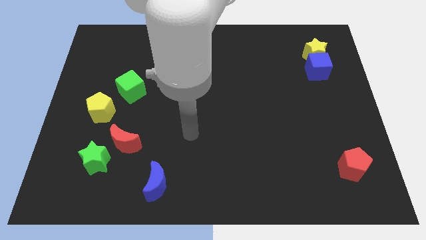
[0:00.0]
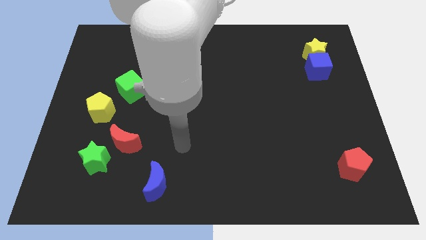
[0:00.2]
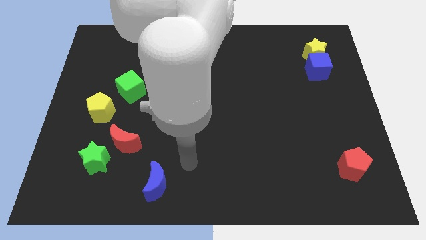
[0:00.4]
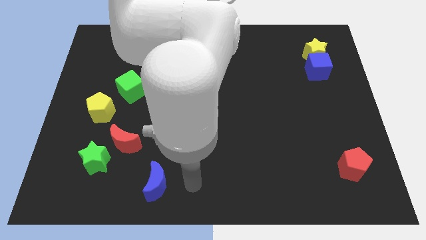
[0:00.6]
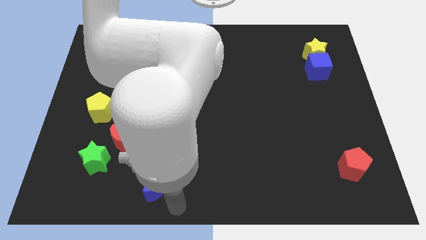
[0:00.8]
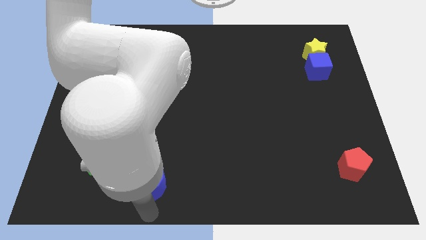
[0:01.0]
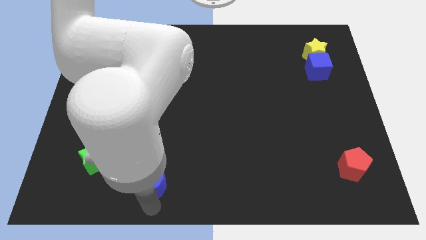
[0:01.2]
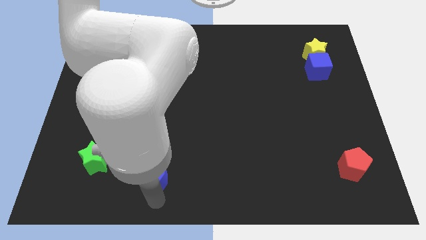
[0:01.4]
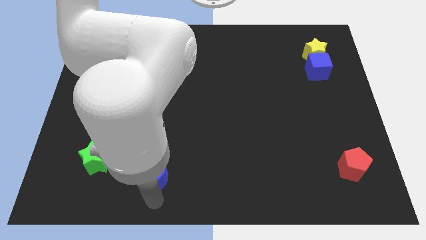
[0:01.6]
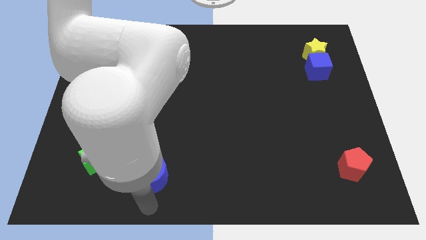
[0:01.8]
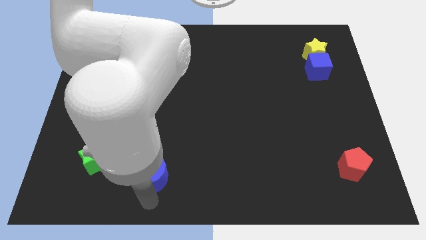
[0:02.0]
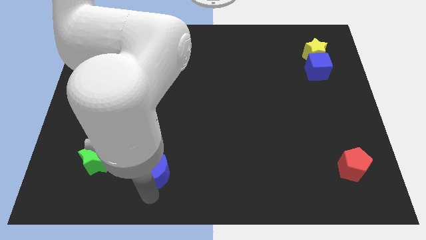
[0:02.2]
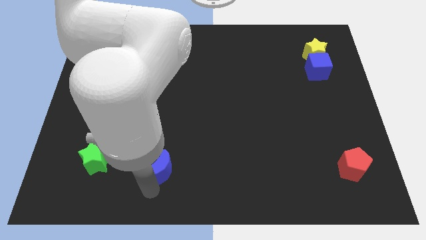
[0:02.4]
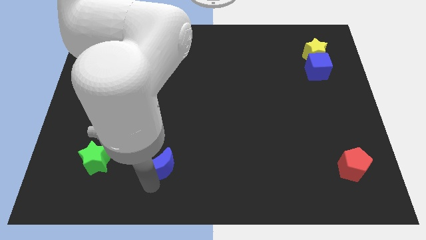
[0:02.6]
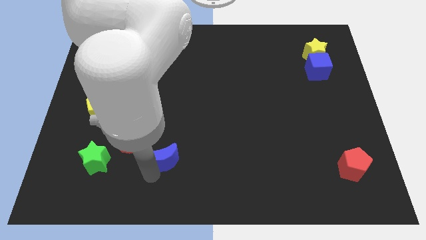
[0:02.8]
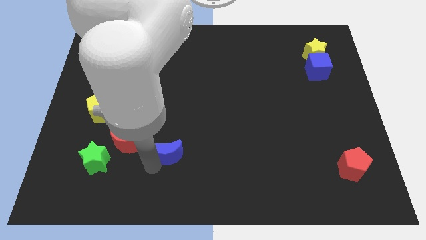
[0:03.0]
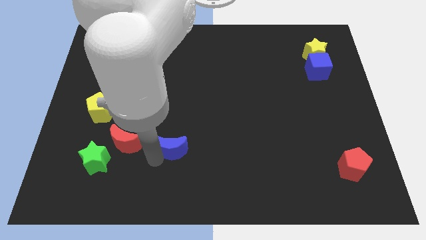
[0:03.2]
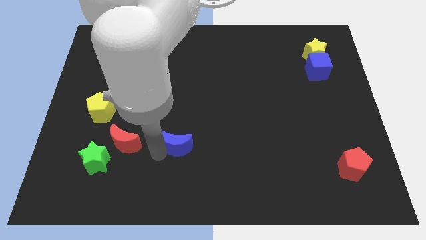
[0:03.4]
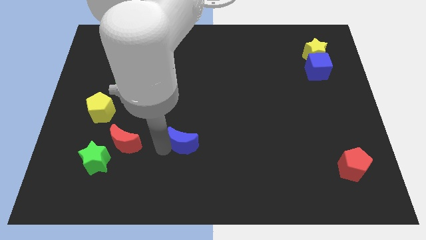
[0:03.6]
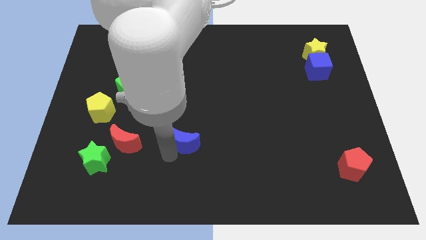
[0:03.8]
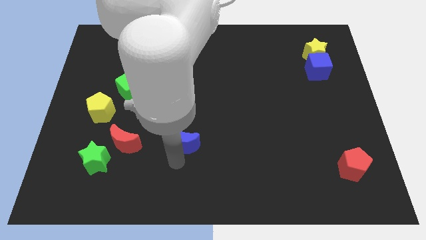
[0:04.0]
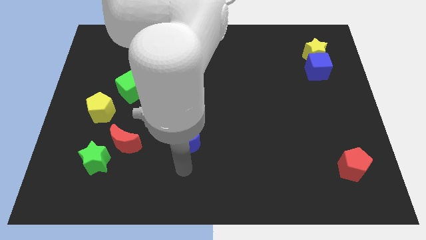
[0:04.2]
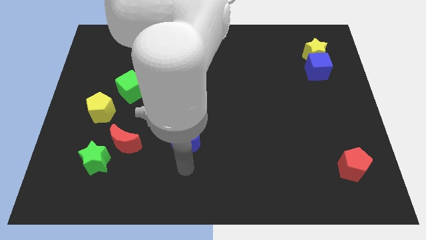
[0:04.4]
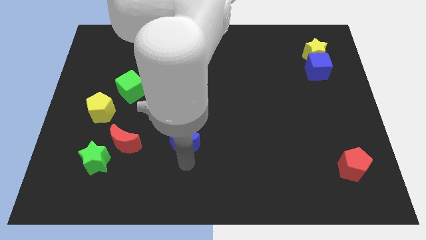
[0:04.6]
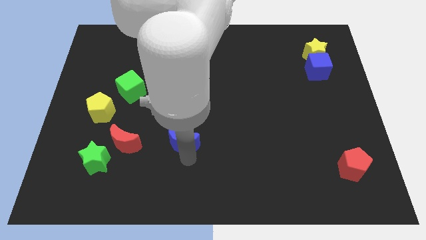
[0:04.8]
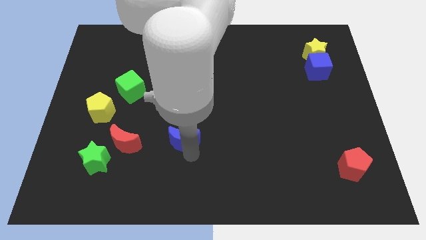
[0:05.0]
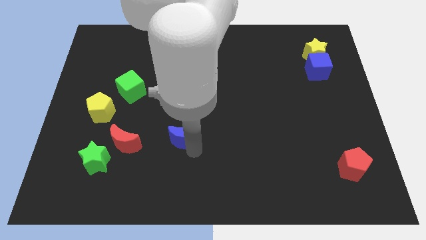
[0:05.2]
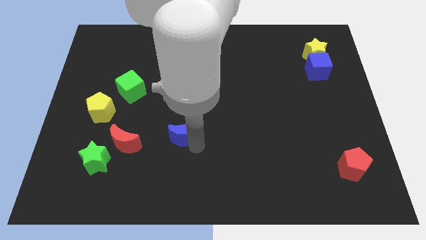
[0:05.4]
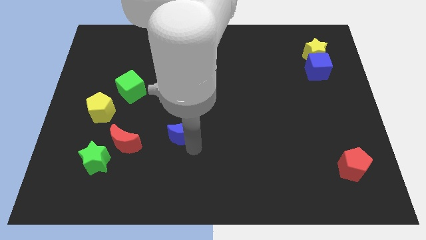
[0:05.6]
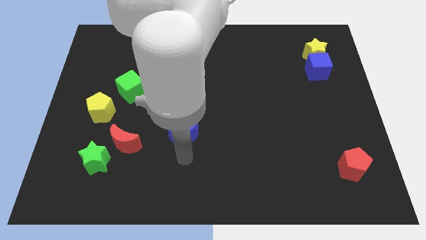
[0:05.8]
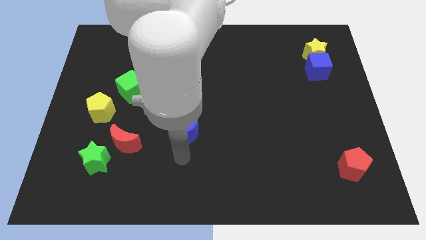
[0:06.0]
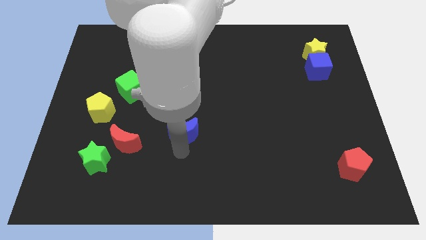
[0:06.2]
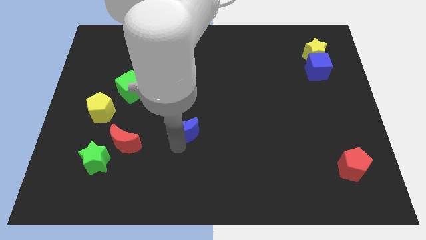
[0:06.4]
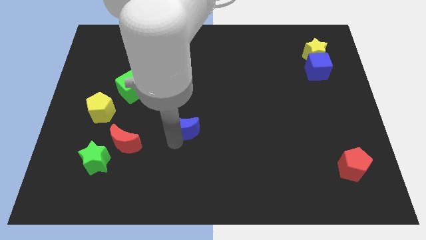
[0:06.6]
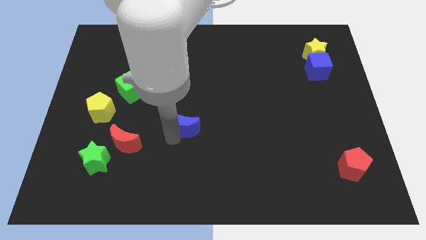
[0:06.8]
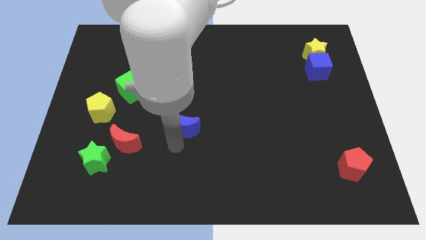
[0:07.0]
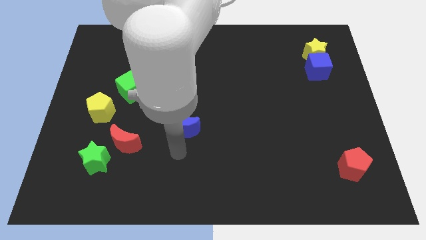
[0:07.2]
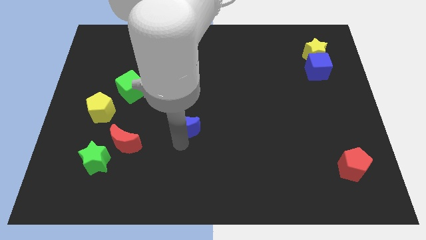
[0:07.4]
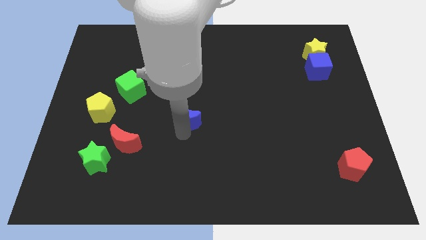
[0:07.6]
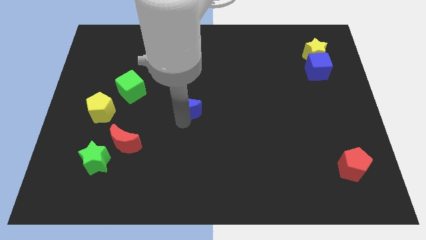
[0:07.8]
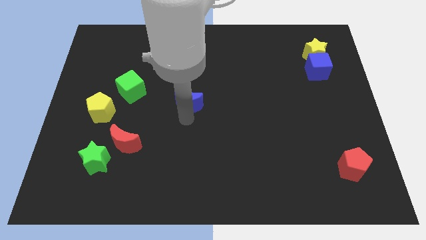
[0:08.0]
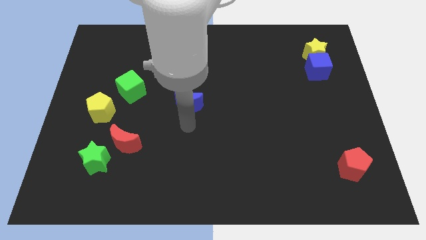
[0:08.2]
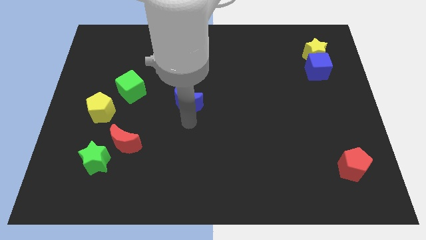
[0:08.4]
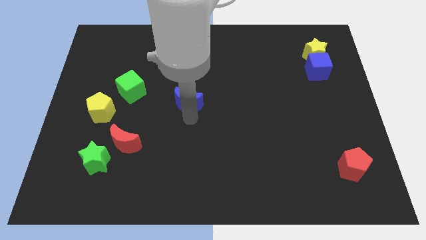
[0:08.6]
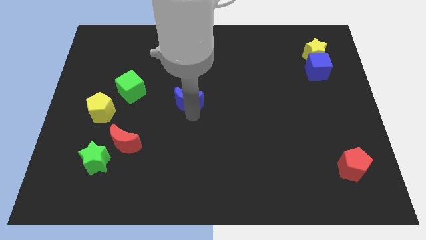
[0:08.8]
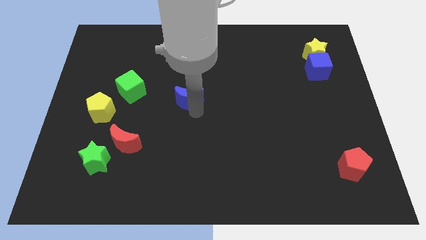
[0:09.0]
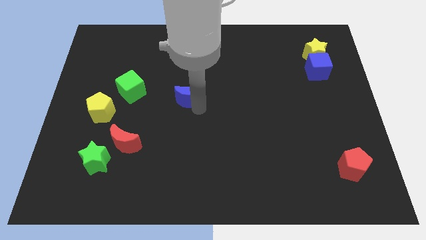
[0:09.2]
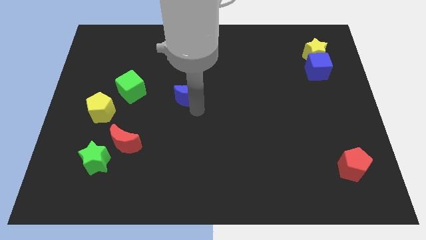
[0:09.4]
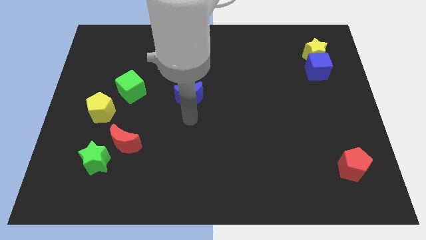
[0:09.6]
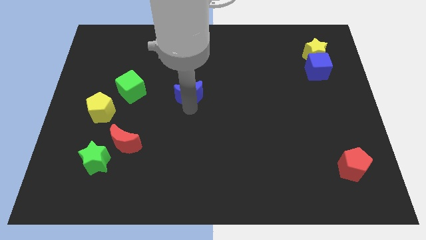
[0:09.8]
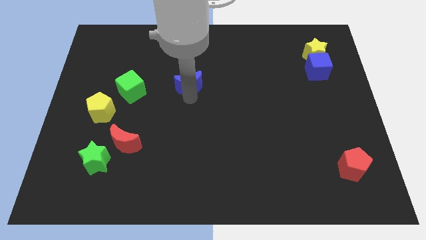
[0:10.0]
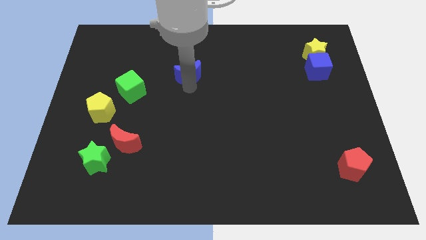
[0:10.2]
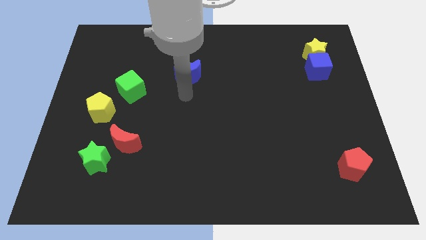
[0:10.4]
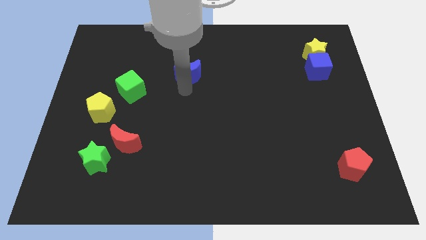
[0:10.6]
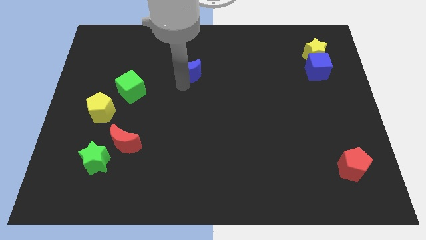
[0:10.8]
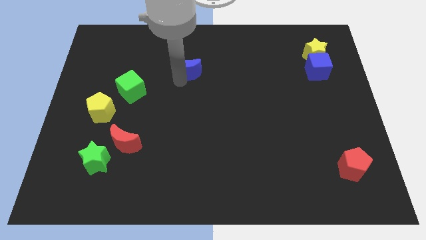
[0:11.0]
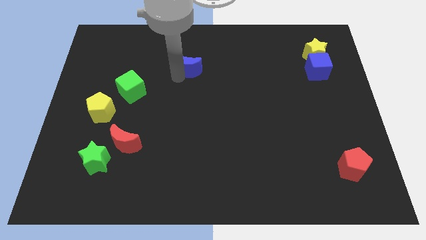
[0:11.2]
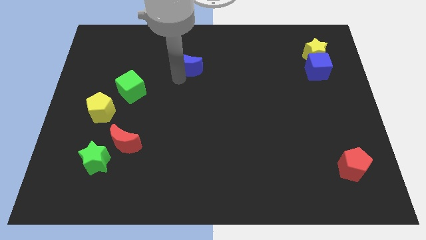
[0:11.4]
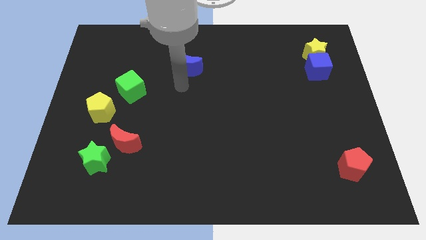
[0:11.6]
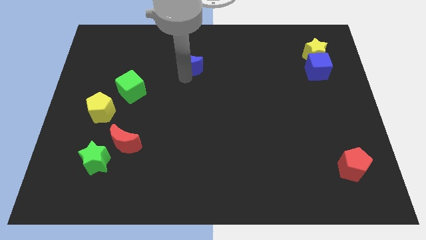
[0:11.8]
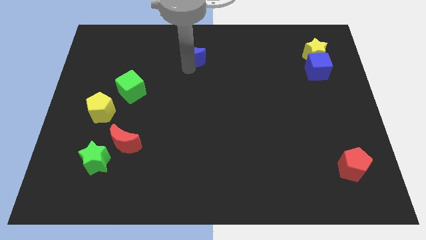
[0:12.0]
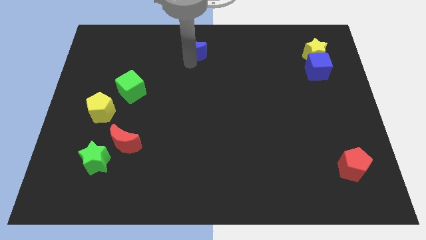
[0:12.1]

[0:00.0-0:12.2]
move the blue moon to the top side
